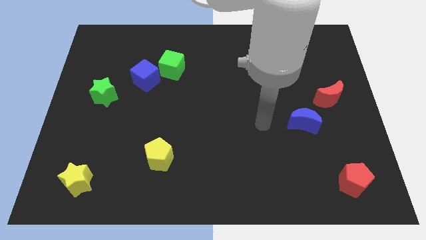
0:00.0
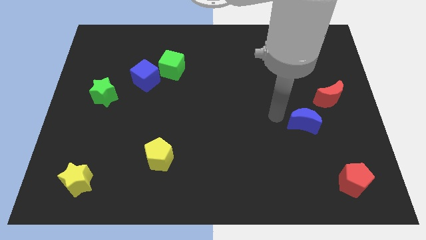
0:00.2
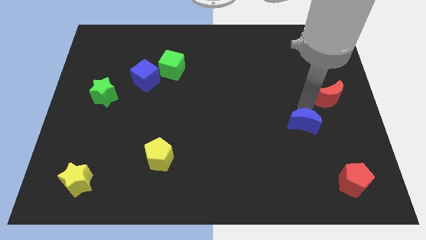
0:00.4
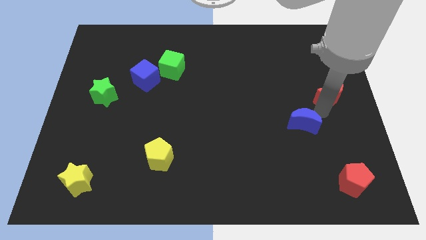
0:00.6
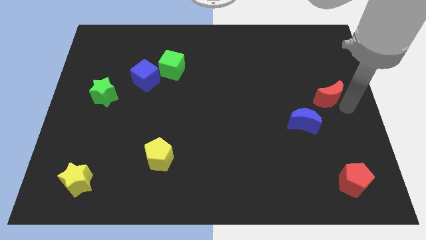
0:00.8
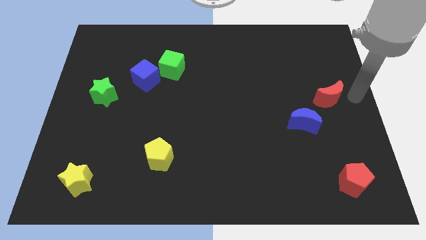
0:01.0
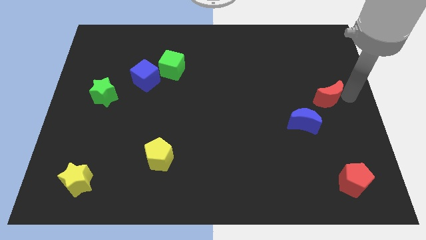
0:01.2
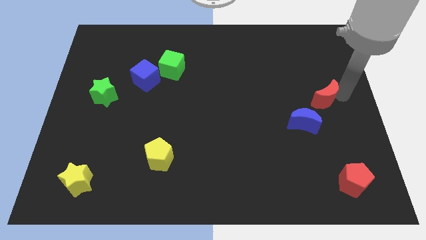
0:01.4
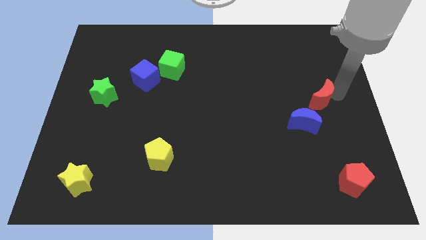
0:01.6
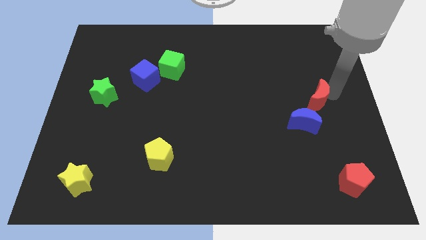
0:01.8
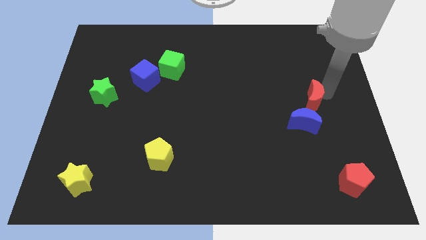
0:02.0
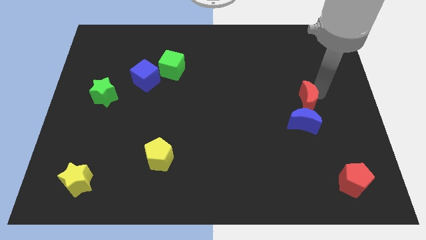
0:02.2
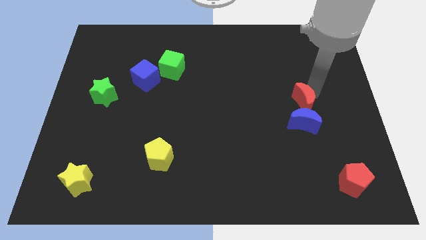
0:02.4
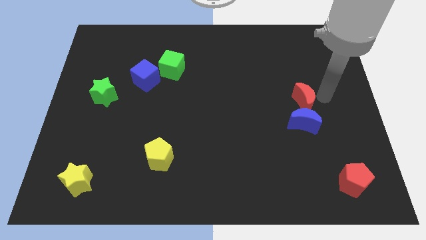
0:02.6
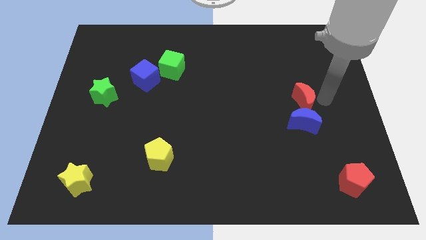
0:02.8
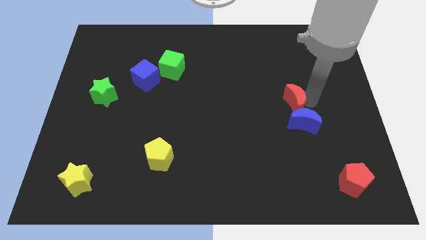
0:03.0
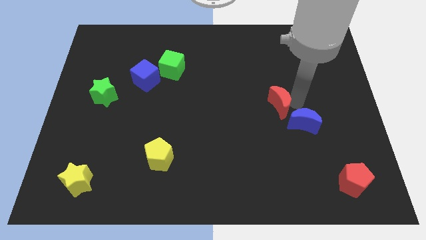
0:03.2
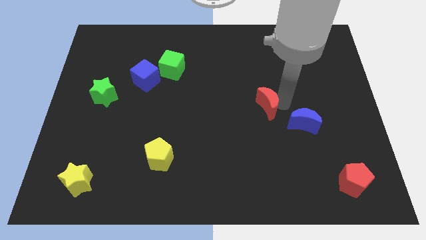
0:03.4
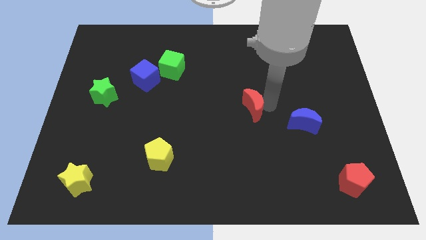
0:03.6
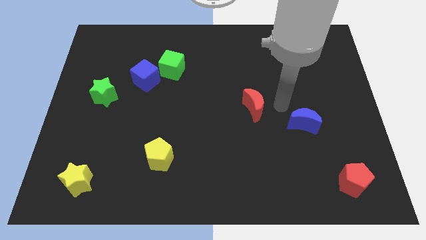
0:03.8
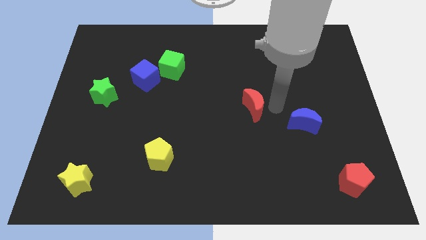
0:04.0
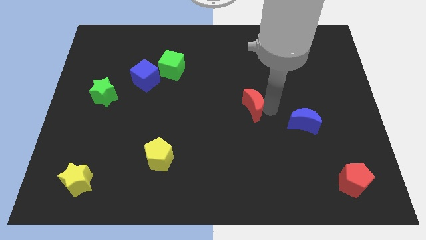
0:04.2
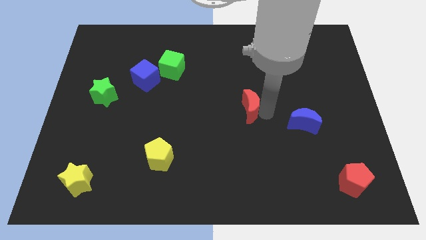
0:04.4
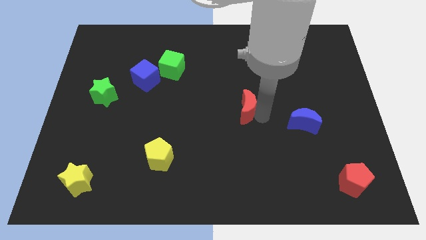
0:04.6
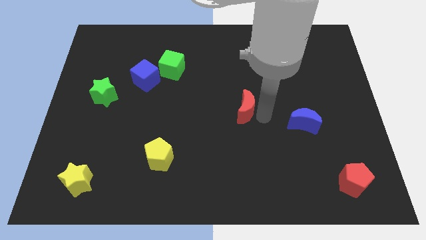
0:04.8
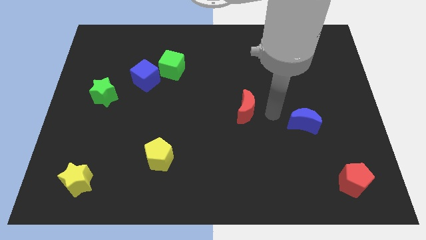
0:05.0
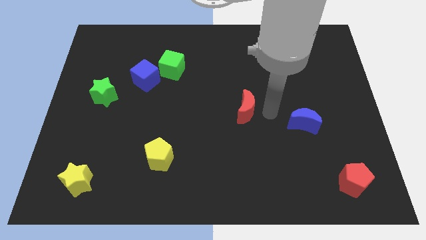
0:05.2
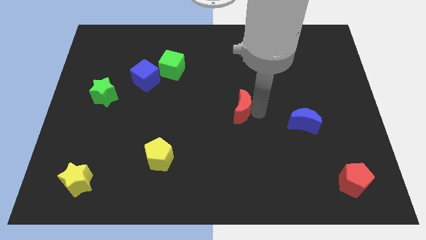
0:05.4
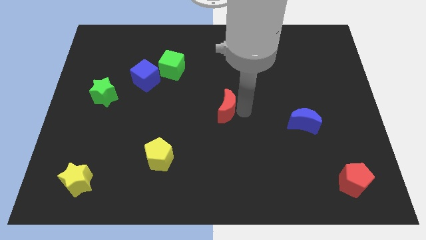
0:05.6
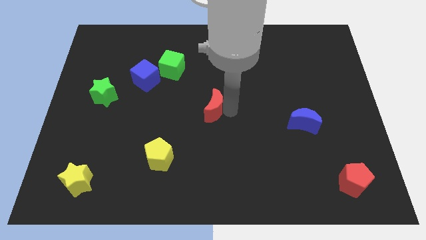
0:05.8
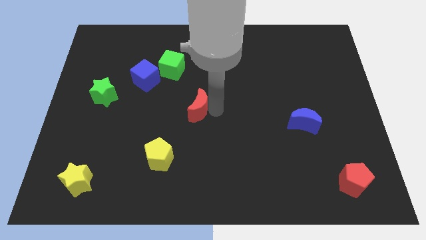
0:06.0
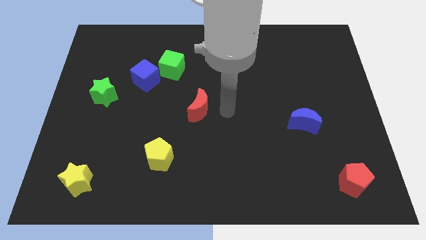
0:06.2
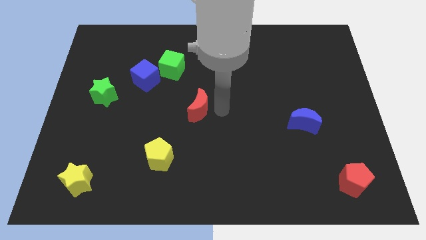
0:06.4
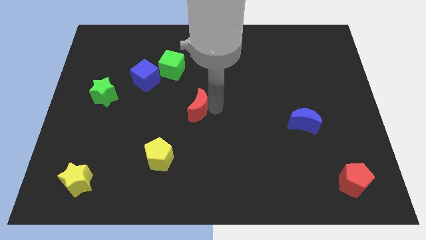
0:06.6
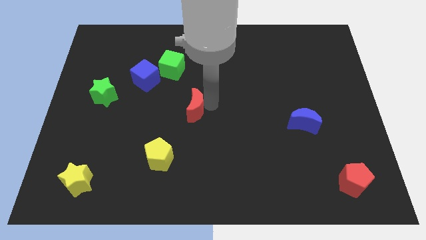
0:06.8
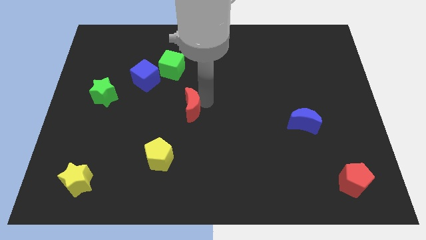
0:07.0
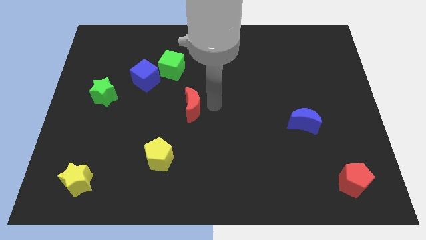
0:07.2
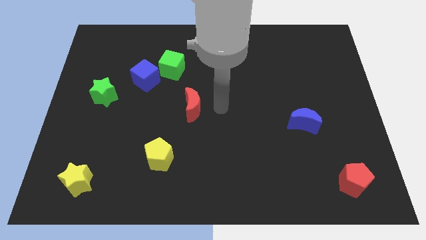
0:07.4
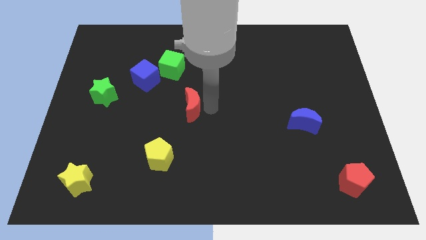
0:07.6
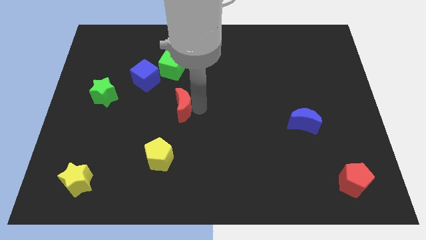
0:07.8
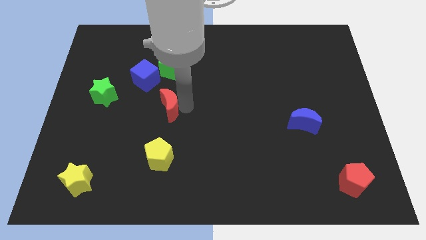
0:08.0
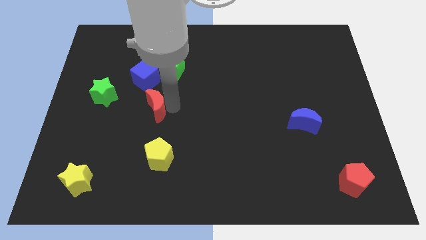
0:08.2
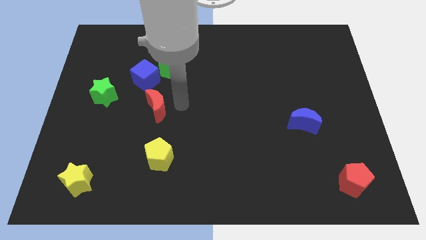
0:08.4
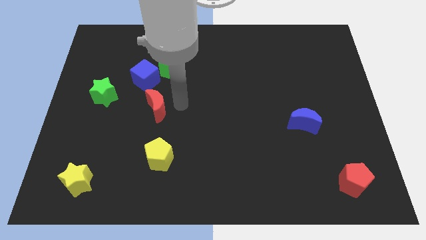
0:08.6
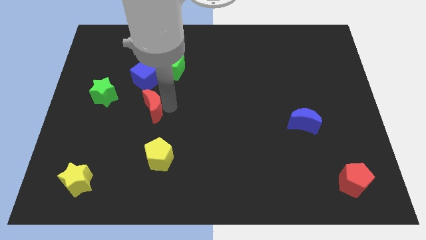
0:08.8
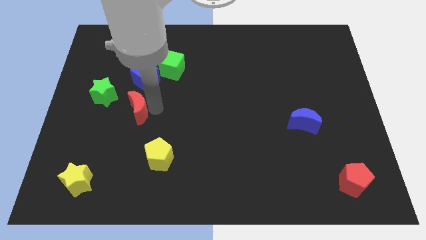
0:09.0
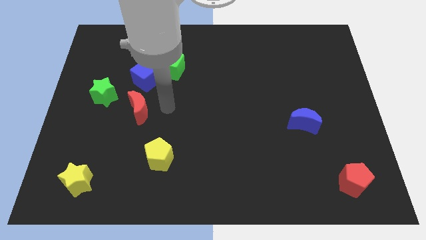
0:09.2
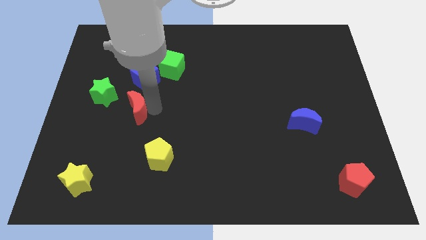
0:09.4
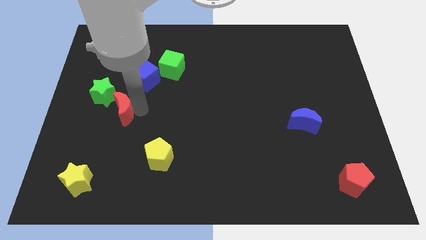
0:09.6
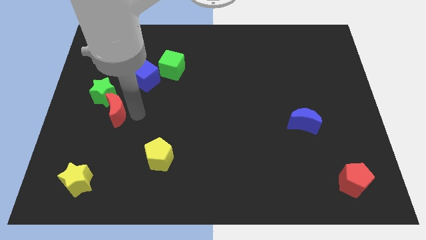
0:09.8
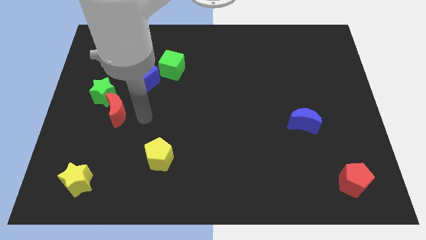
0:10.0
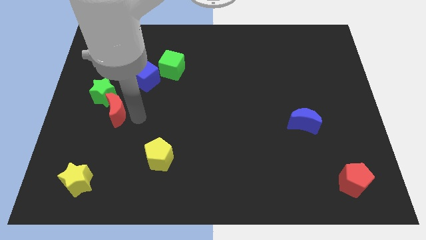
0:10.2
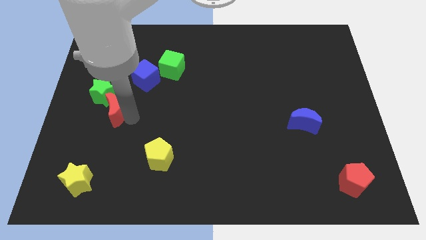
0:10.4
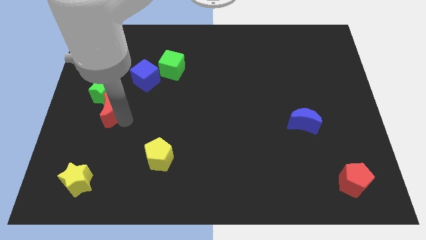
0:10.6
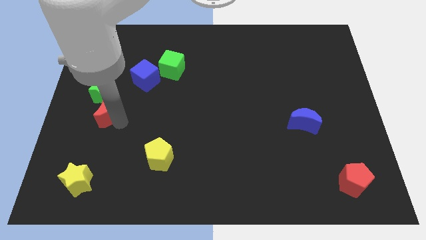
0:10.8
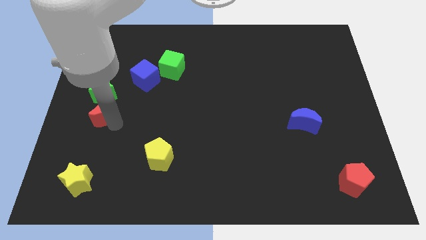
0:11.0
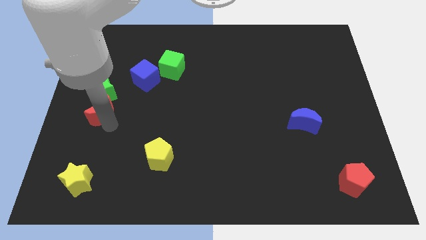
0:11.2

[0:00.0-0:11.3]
slide the red moon to the center left

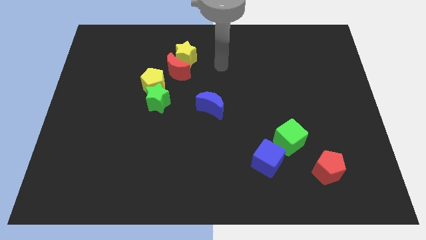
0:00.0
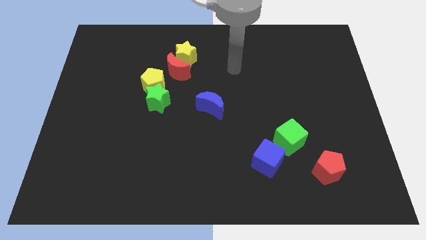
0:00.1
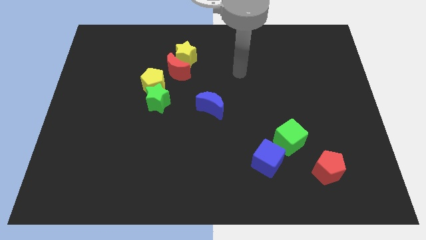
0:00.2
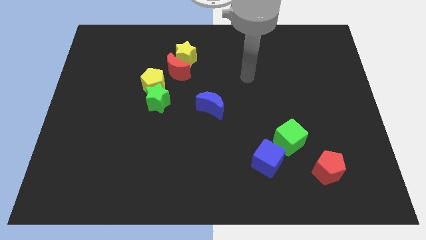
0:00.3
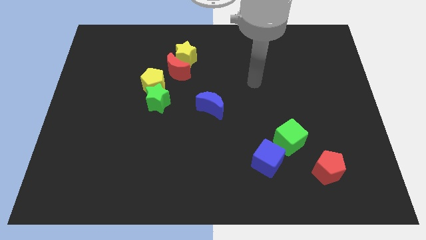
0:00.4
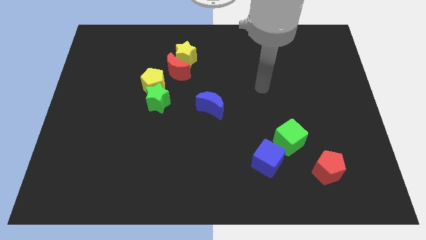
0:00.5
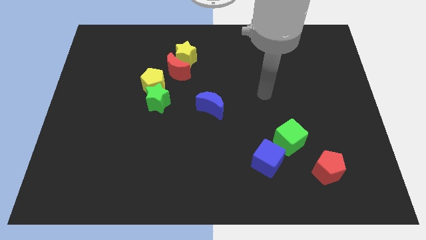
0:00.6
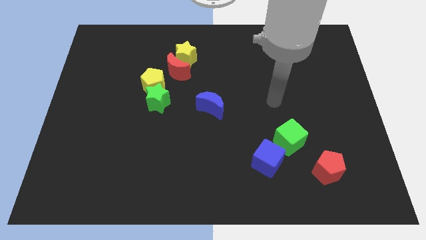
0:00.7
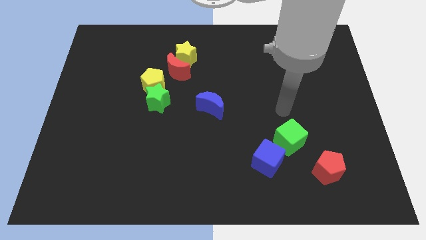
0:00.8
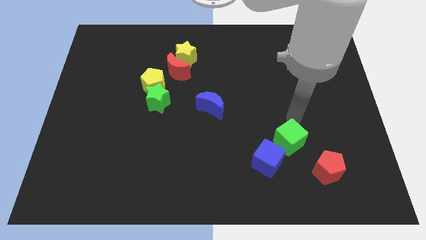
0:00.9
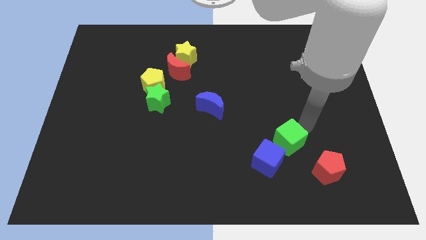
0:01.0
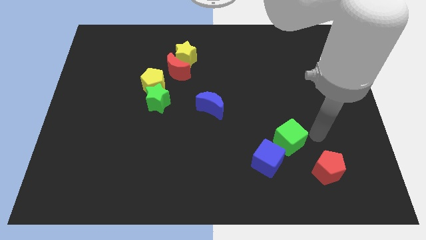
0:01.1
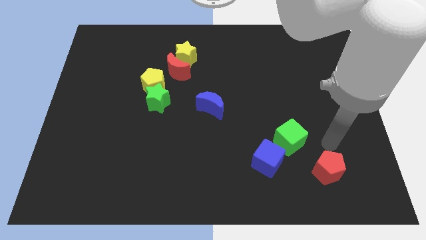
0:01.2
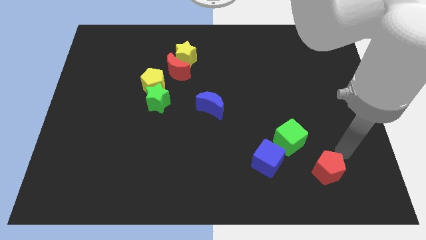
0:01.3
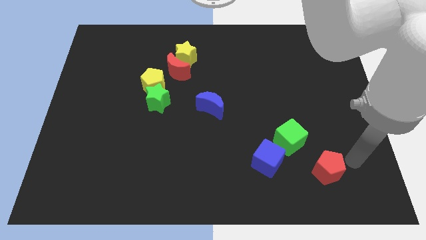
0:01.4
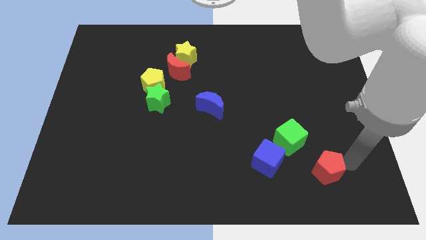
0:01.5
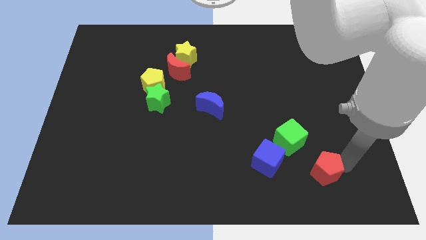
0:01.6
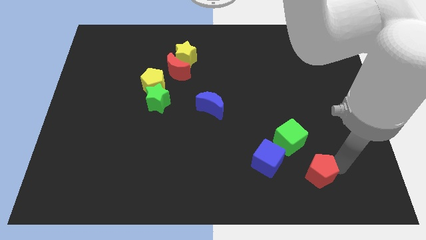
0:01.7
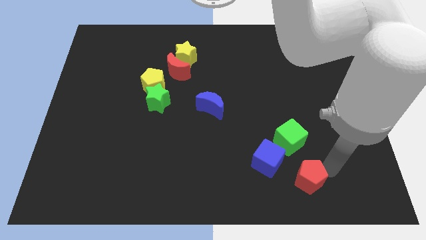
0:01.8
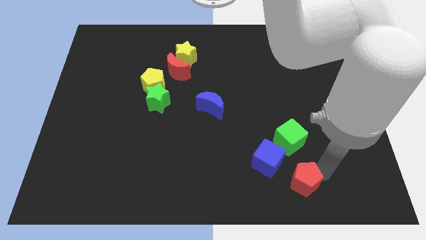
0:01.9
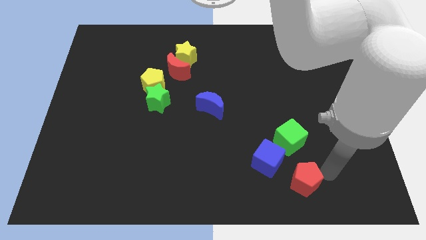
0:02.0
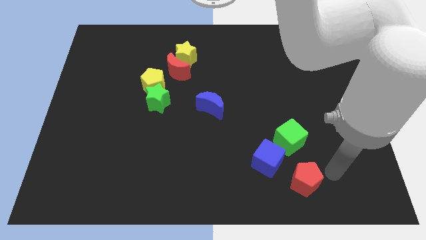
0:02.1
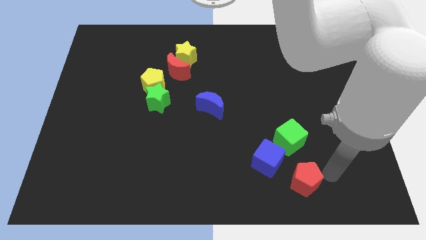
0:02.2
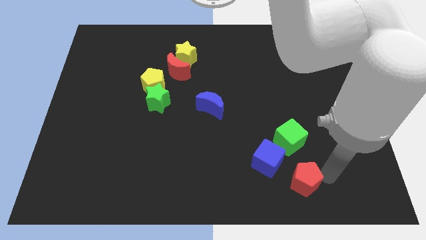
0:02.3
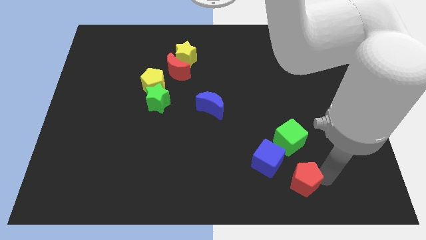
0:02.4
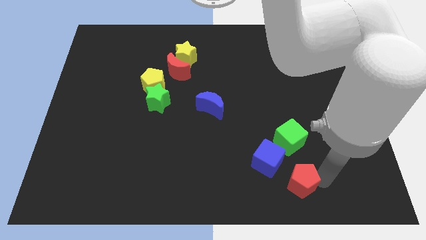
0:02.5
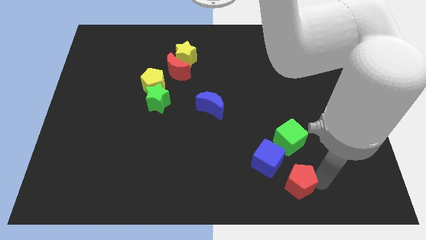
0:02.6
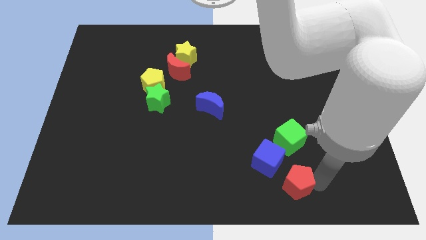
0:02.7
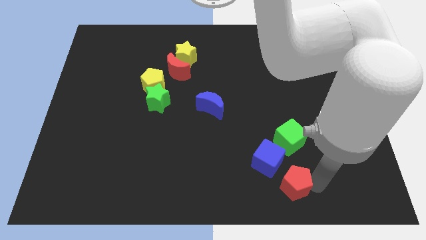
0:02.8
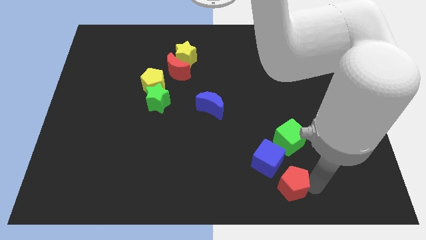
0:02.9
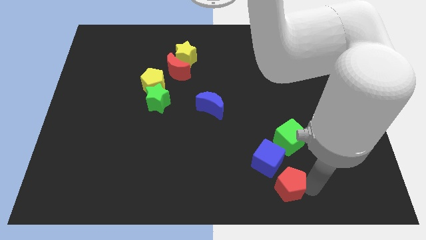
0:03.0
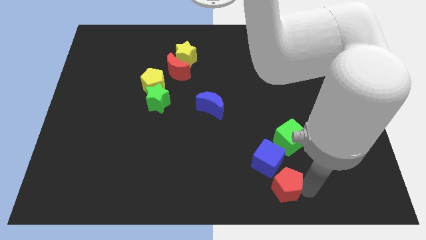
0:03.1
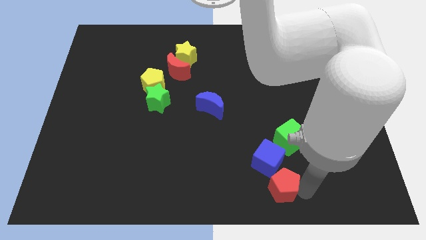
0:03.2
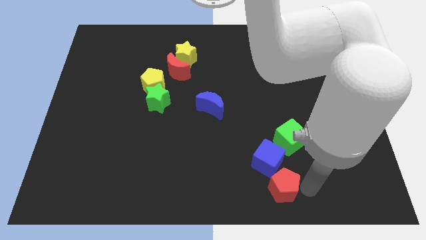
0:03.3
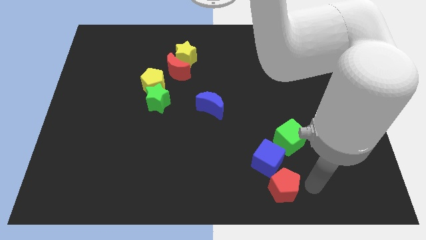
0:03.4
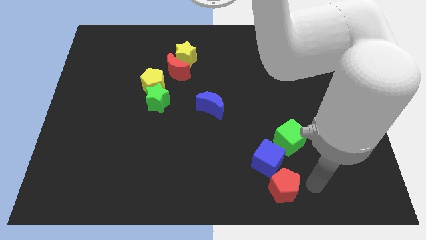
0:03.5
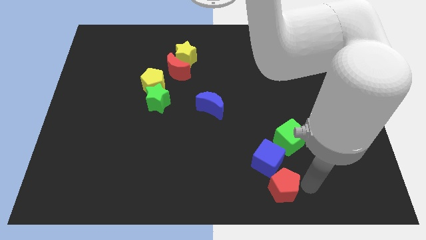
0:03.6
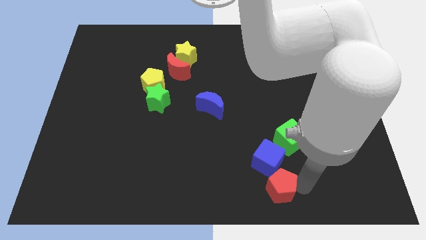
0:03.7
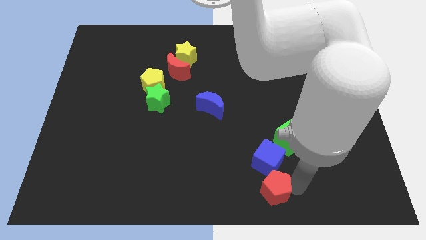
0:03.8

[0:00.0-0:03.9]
move the red pentagon to the bottom
